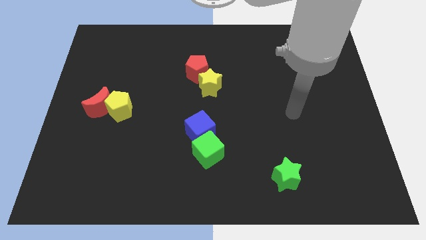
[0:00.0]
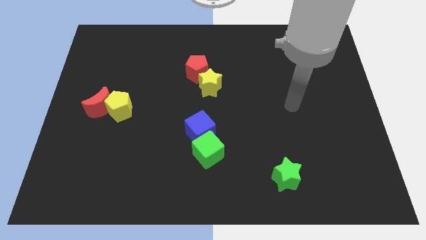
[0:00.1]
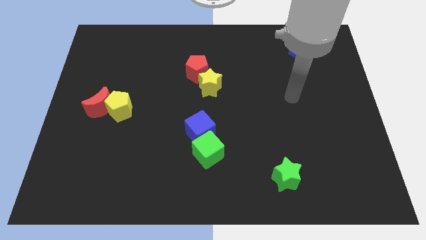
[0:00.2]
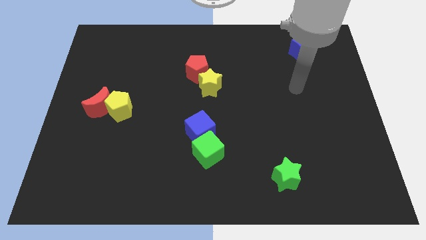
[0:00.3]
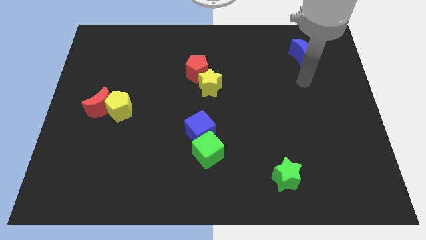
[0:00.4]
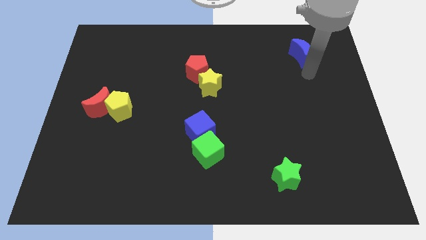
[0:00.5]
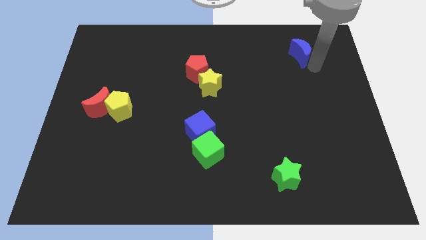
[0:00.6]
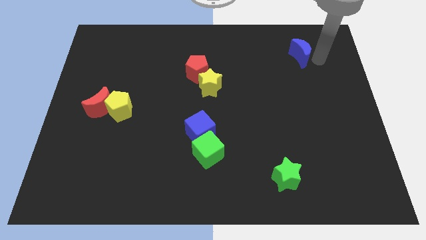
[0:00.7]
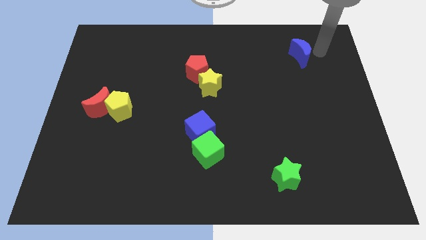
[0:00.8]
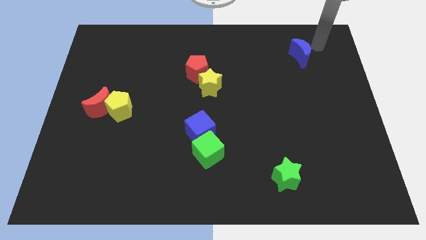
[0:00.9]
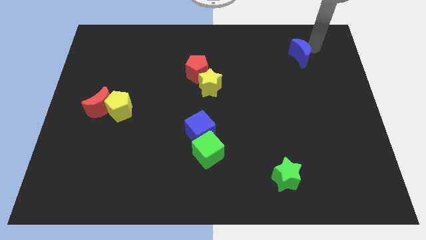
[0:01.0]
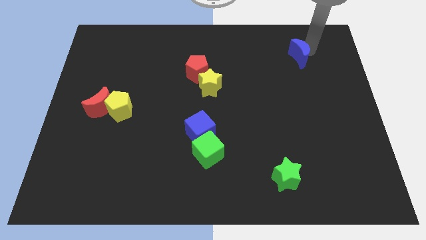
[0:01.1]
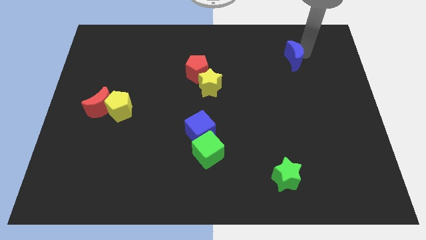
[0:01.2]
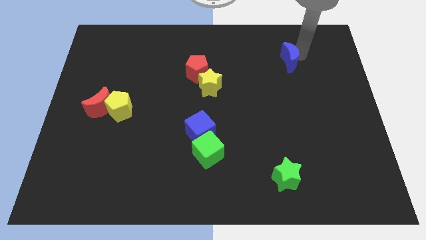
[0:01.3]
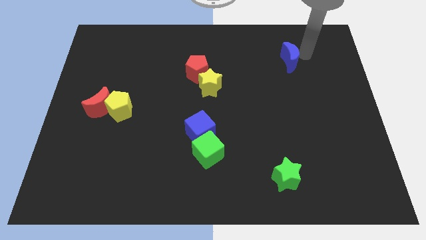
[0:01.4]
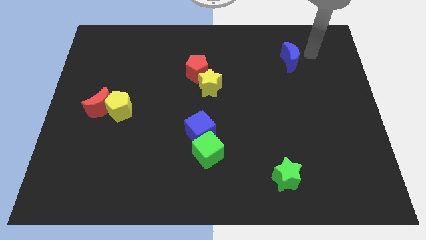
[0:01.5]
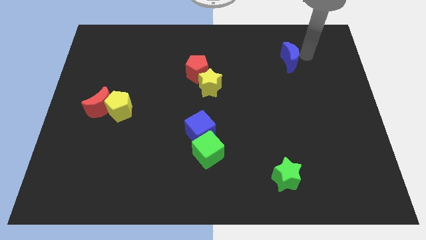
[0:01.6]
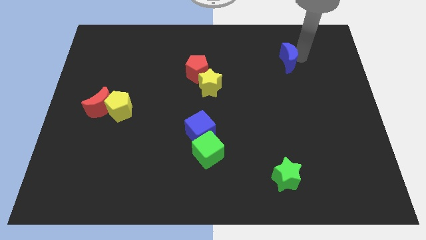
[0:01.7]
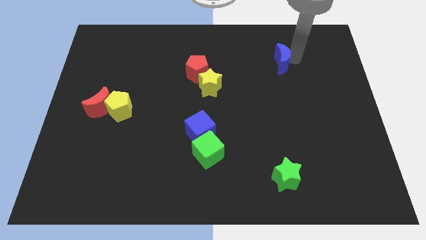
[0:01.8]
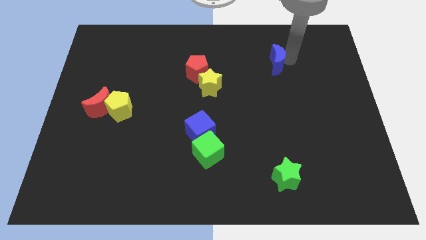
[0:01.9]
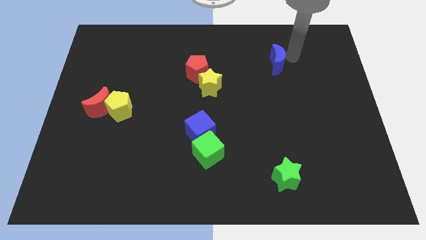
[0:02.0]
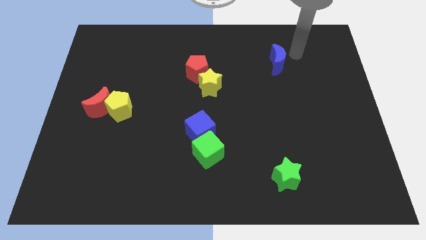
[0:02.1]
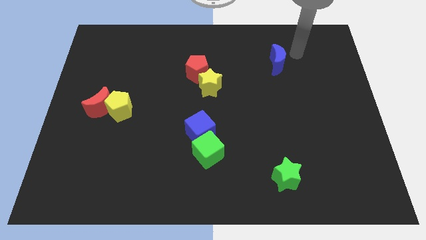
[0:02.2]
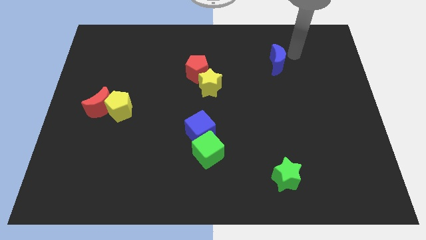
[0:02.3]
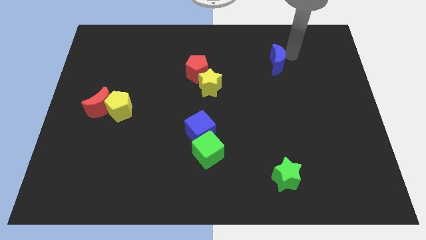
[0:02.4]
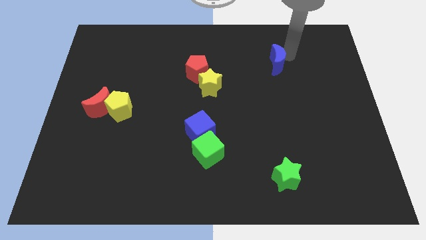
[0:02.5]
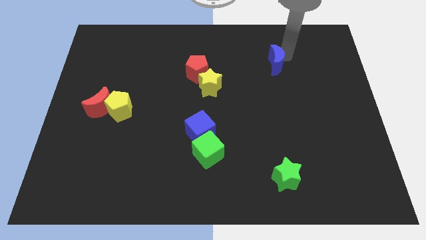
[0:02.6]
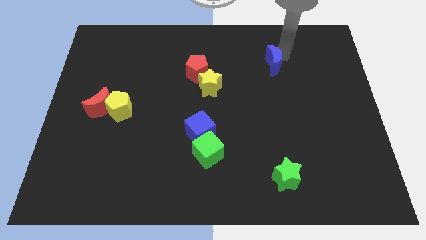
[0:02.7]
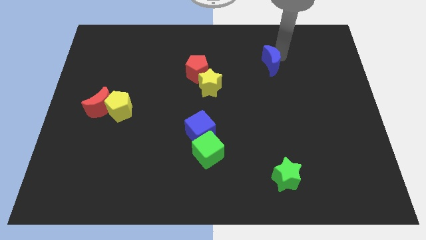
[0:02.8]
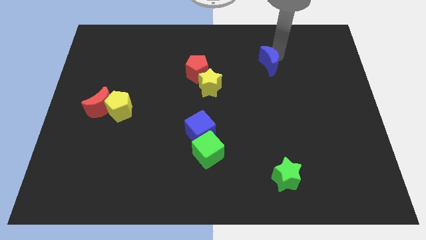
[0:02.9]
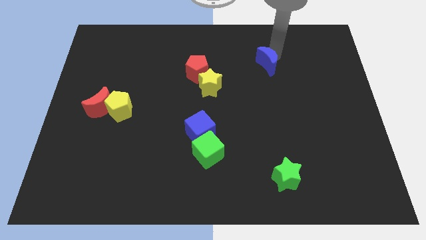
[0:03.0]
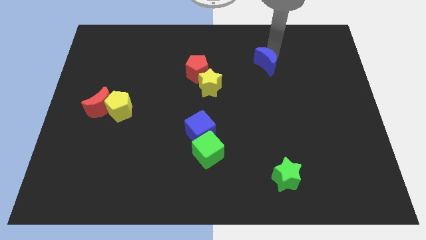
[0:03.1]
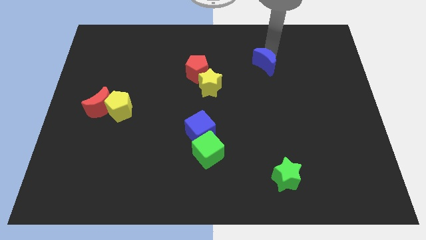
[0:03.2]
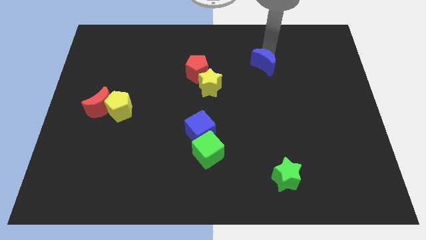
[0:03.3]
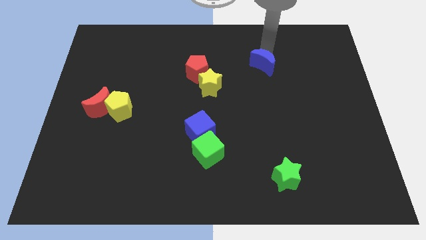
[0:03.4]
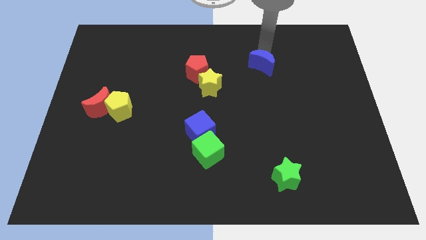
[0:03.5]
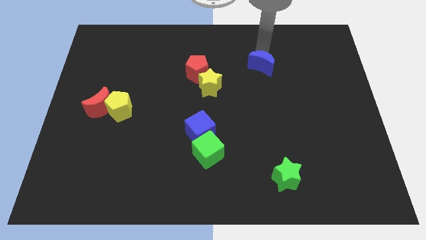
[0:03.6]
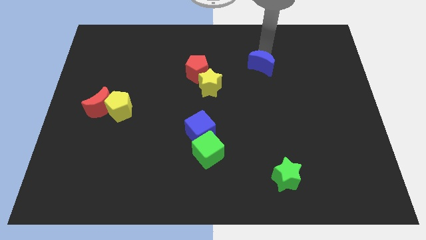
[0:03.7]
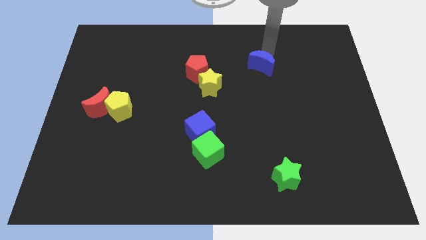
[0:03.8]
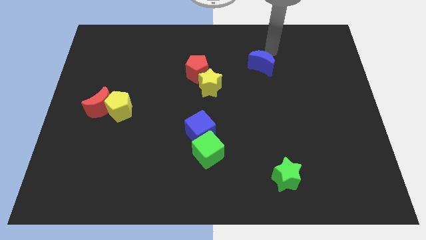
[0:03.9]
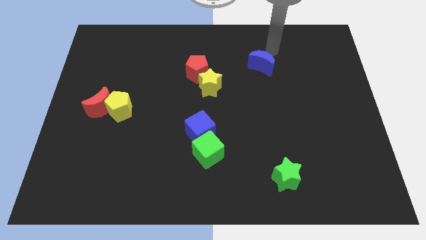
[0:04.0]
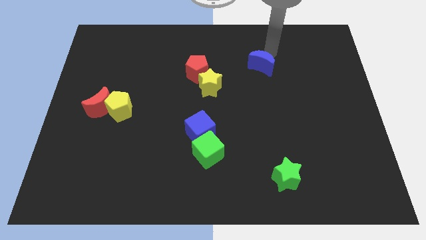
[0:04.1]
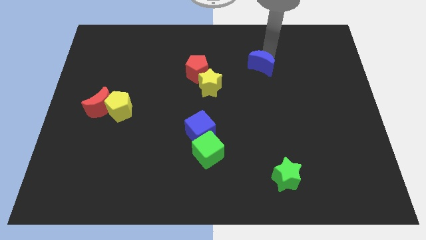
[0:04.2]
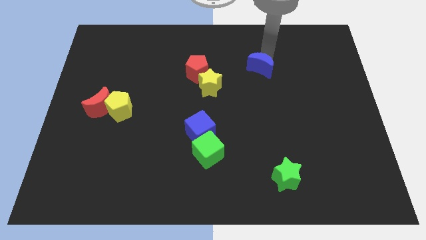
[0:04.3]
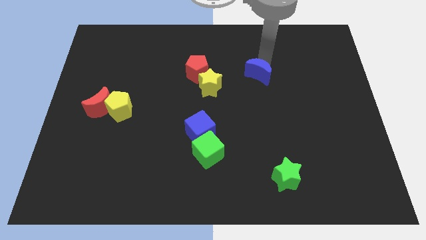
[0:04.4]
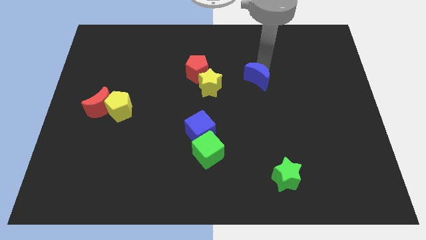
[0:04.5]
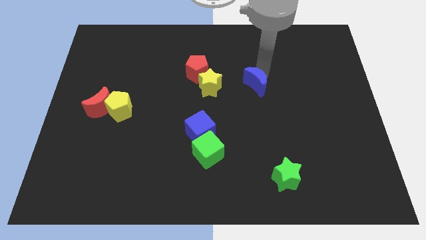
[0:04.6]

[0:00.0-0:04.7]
move the blue moon to the center

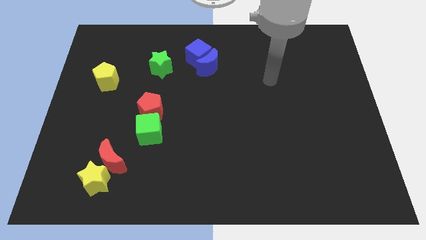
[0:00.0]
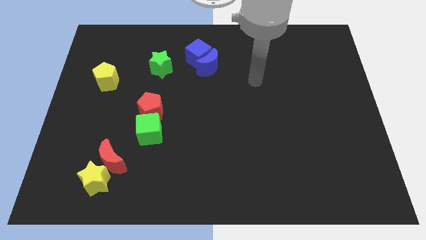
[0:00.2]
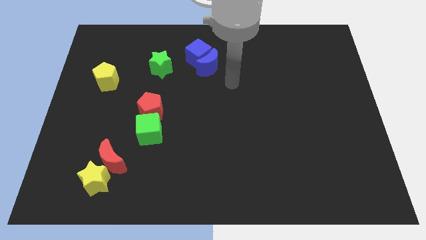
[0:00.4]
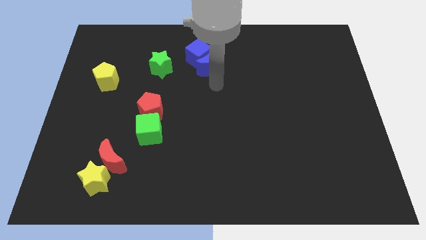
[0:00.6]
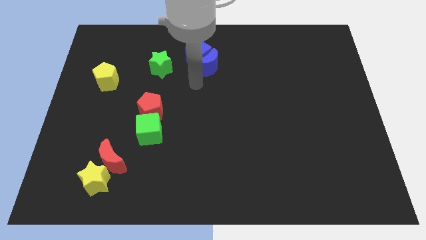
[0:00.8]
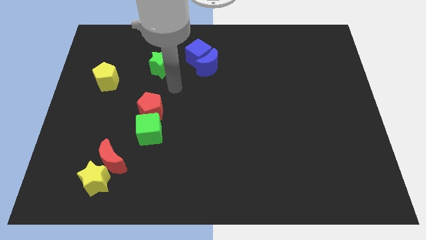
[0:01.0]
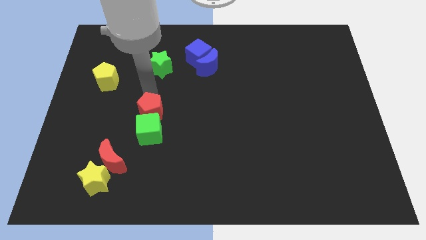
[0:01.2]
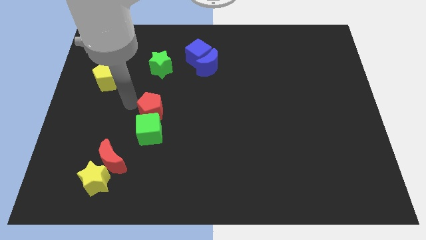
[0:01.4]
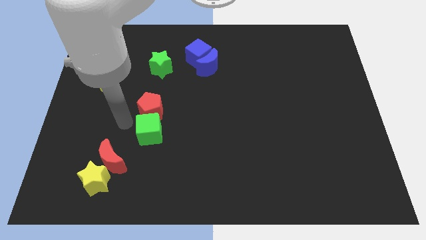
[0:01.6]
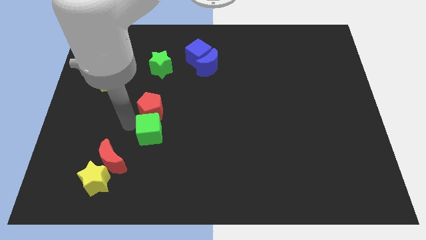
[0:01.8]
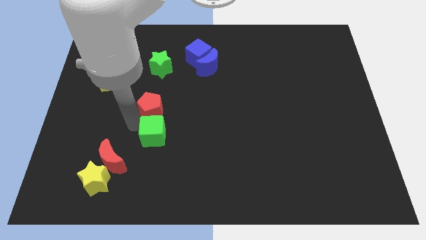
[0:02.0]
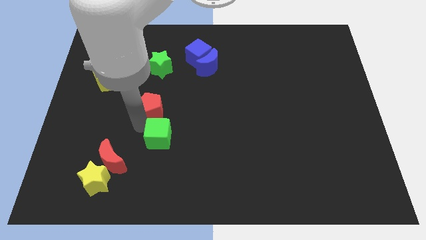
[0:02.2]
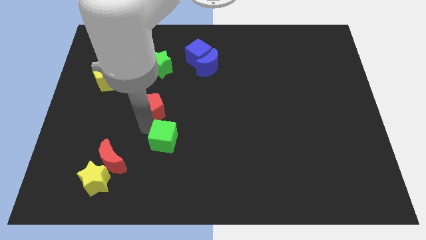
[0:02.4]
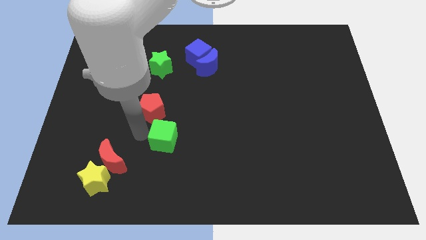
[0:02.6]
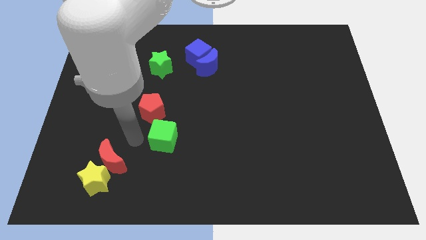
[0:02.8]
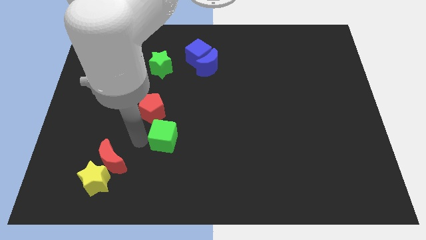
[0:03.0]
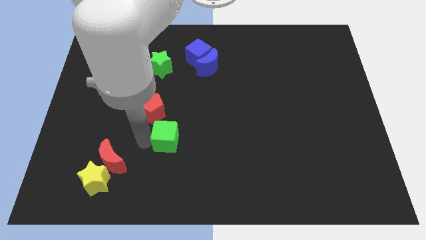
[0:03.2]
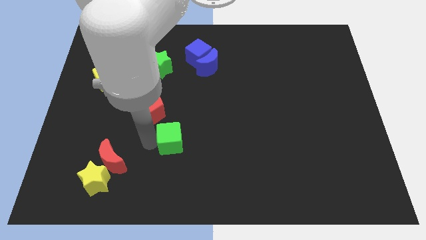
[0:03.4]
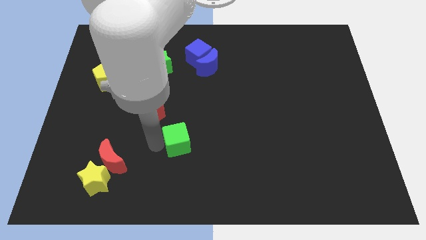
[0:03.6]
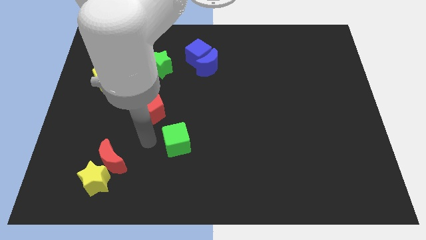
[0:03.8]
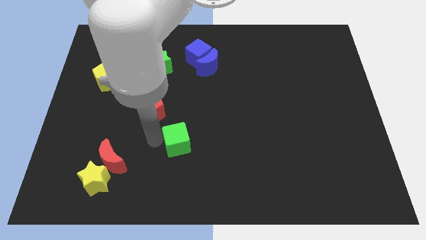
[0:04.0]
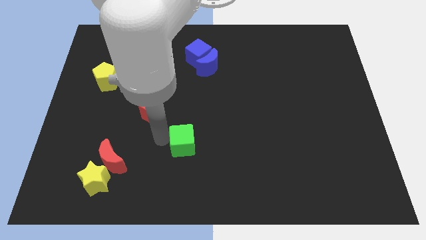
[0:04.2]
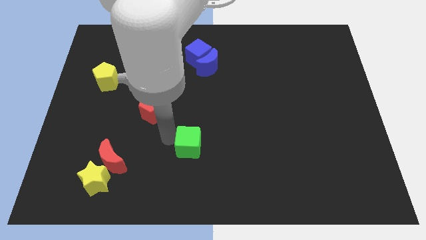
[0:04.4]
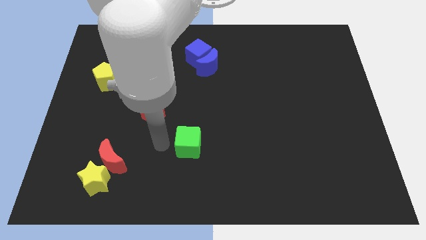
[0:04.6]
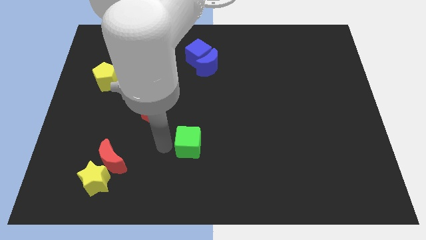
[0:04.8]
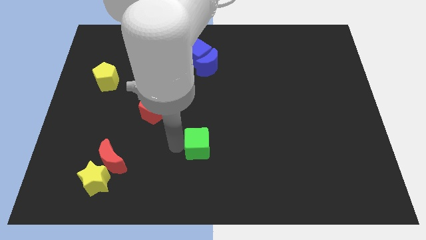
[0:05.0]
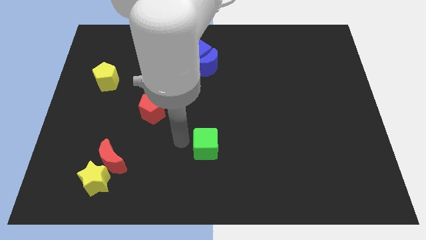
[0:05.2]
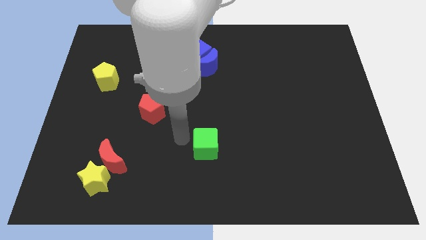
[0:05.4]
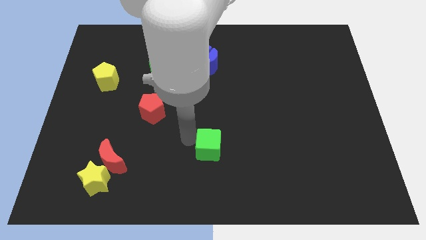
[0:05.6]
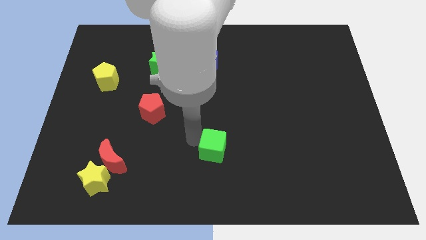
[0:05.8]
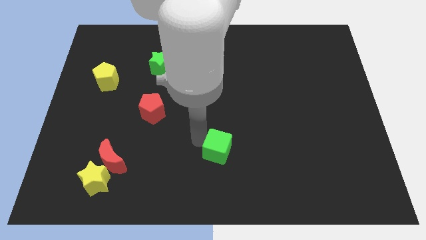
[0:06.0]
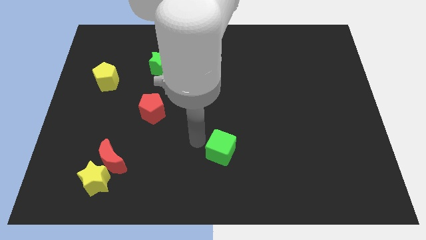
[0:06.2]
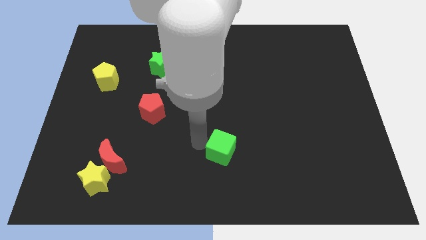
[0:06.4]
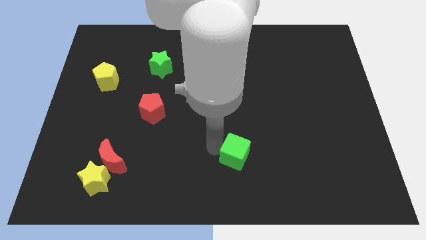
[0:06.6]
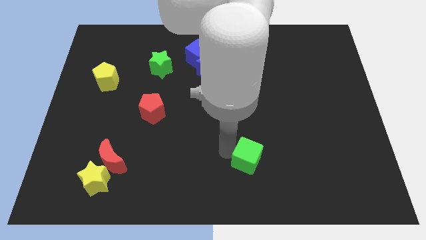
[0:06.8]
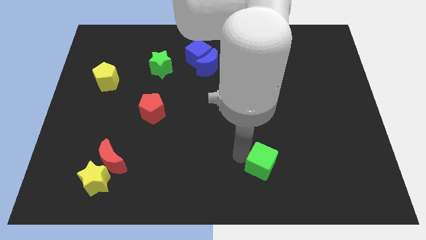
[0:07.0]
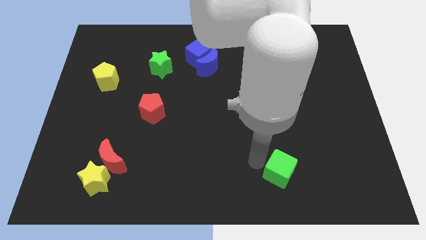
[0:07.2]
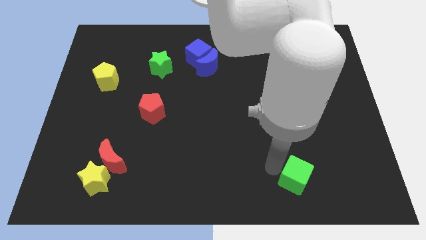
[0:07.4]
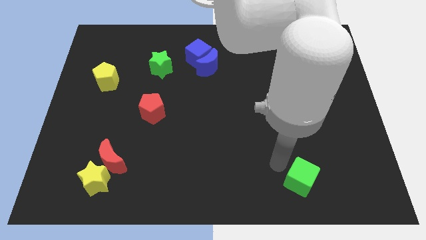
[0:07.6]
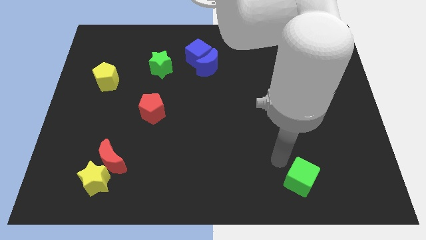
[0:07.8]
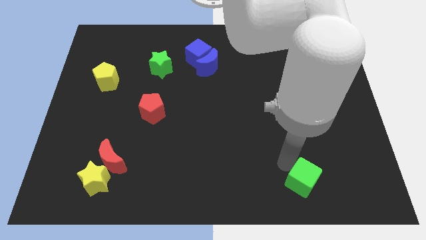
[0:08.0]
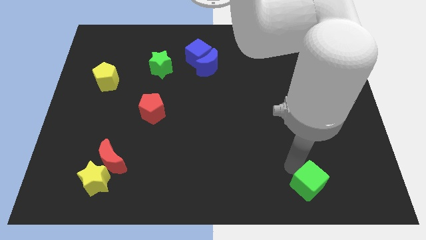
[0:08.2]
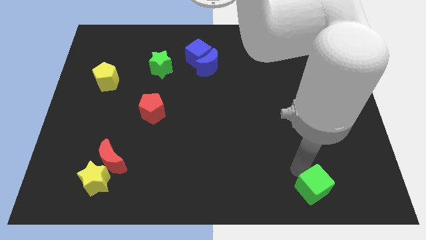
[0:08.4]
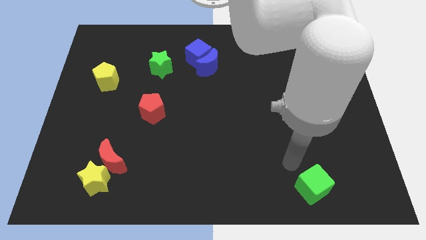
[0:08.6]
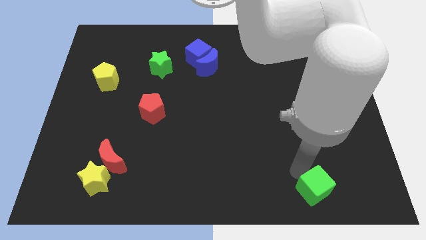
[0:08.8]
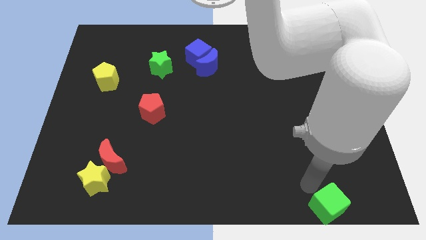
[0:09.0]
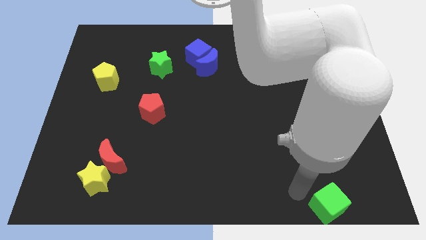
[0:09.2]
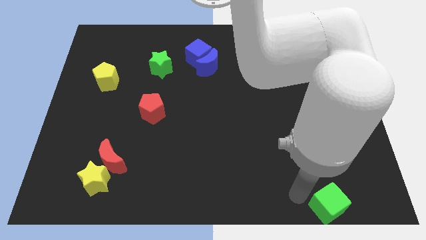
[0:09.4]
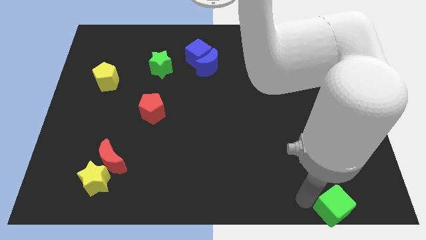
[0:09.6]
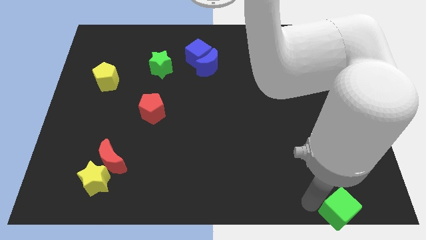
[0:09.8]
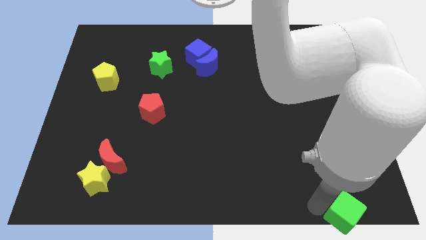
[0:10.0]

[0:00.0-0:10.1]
push the green cube to the bottom right corner
